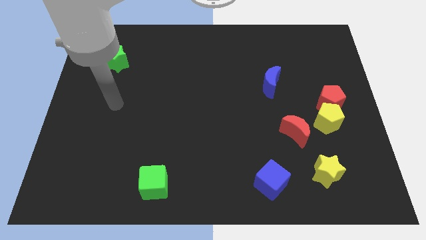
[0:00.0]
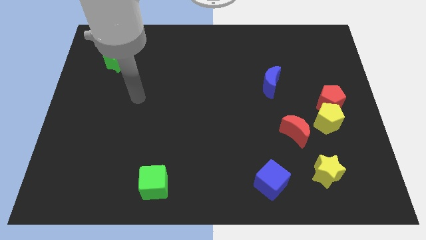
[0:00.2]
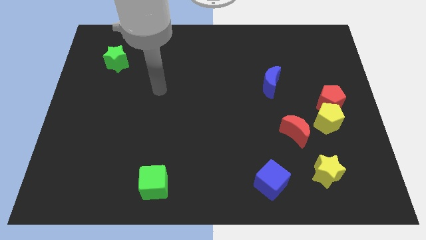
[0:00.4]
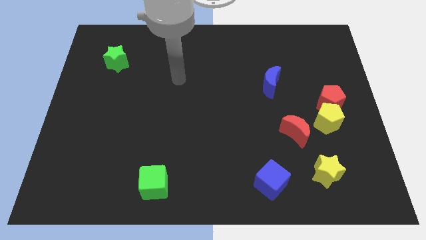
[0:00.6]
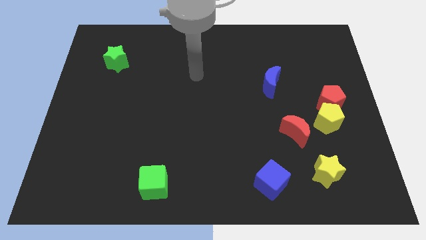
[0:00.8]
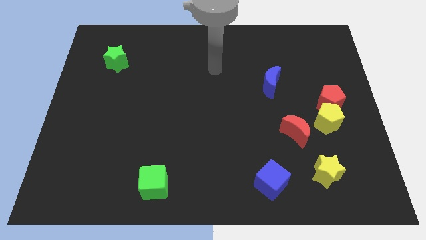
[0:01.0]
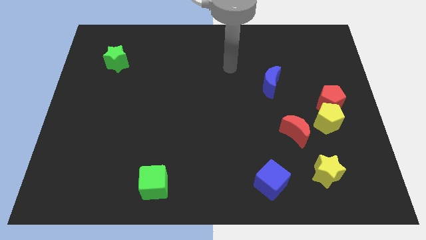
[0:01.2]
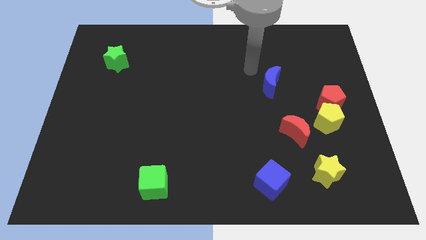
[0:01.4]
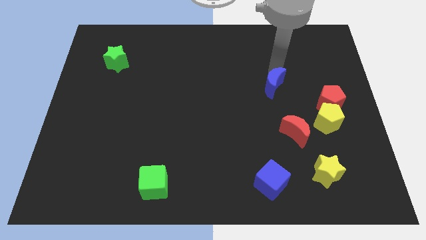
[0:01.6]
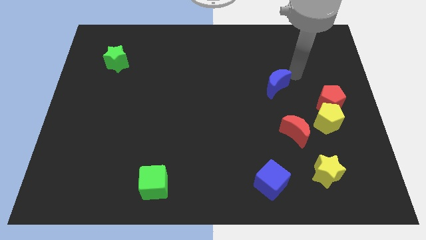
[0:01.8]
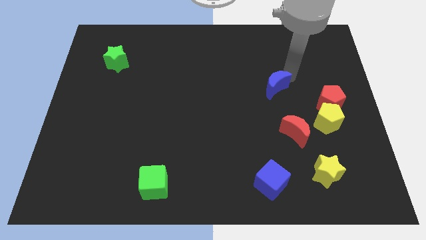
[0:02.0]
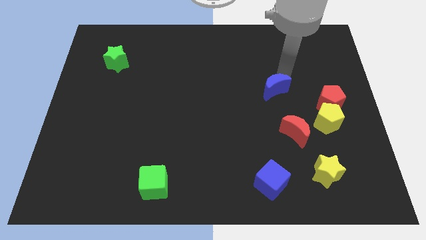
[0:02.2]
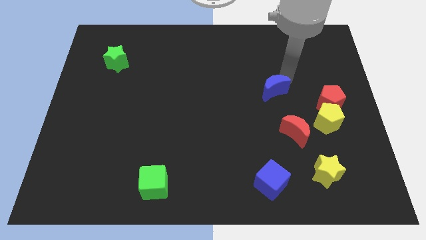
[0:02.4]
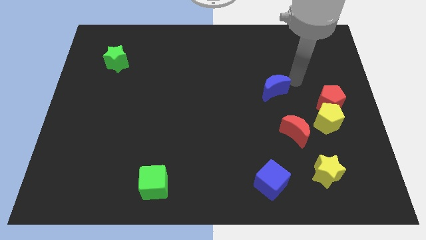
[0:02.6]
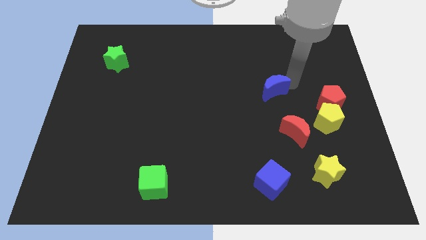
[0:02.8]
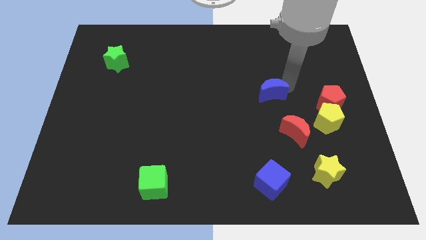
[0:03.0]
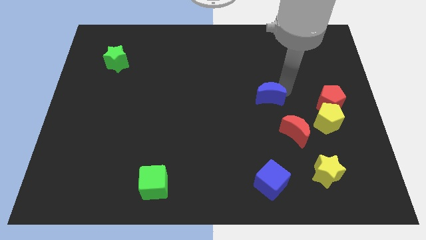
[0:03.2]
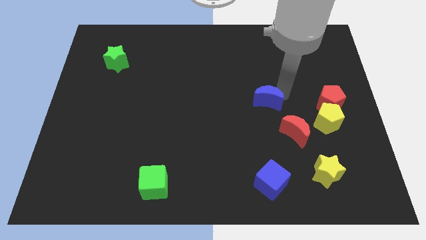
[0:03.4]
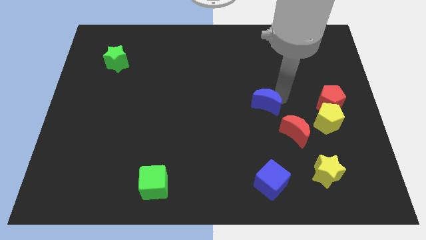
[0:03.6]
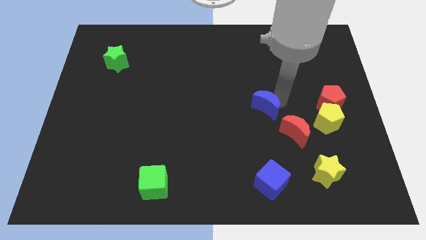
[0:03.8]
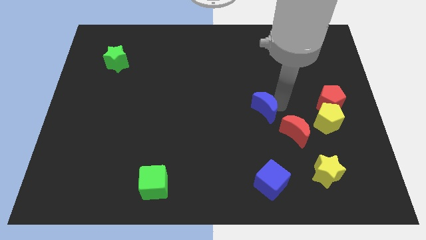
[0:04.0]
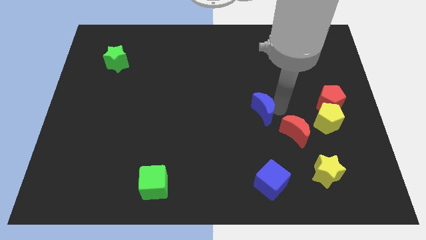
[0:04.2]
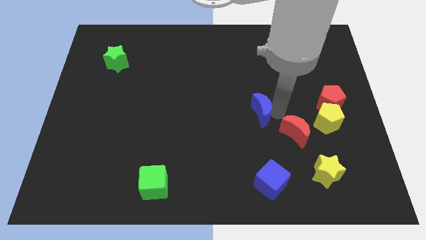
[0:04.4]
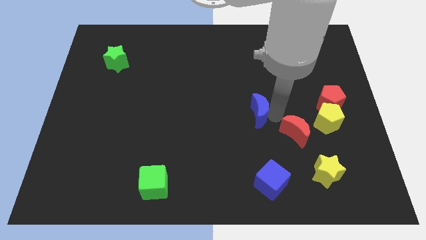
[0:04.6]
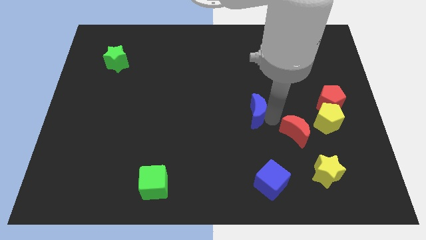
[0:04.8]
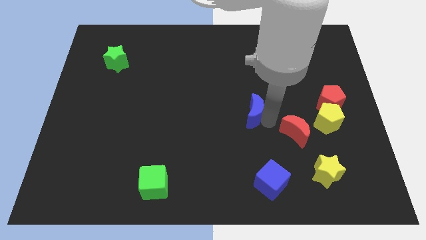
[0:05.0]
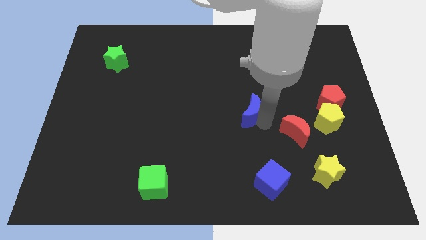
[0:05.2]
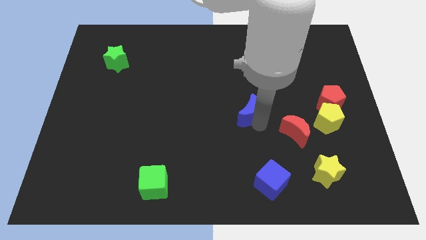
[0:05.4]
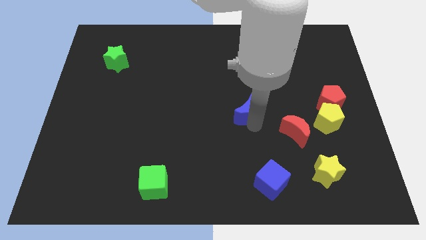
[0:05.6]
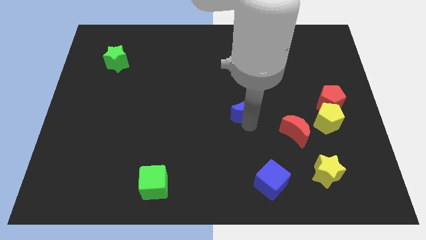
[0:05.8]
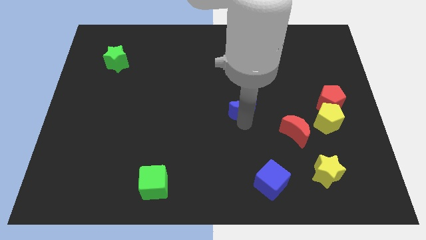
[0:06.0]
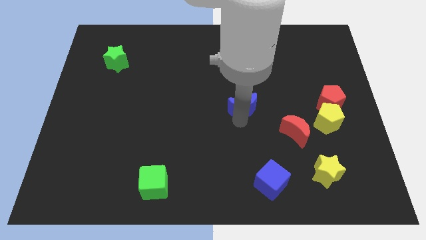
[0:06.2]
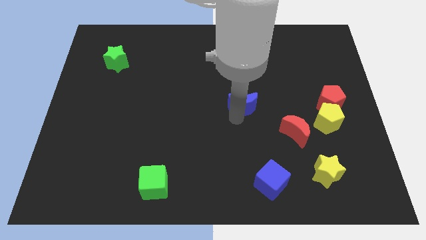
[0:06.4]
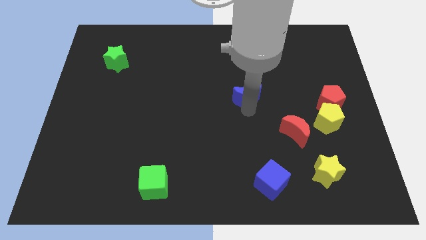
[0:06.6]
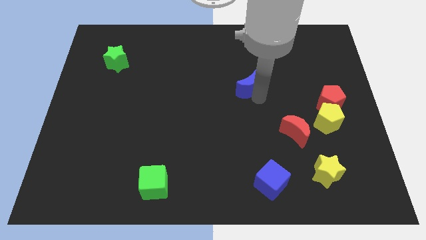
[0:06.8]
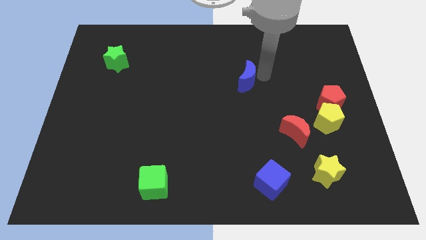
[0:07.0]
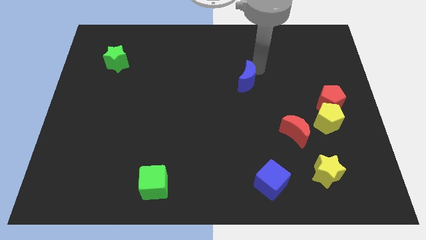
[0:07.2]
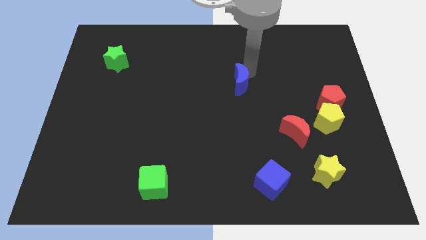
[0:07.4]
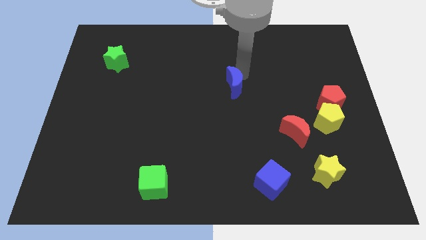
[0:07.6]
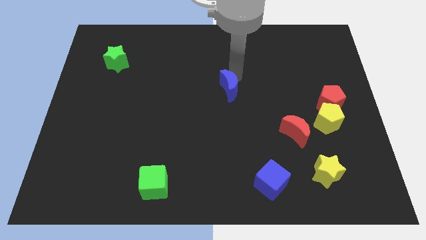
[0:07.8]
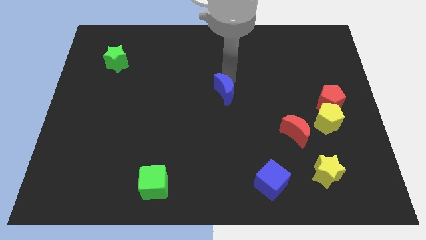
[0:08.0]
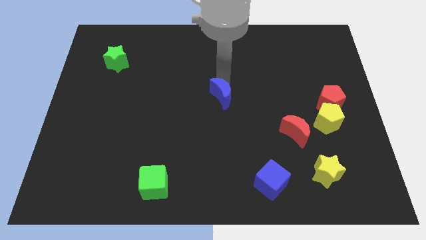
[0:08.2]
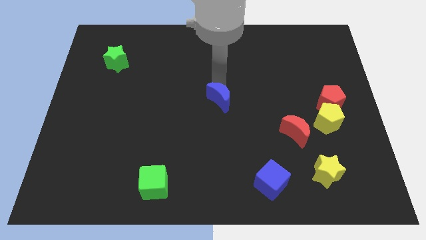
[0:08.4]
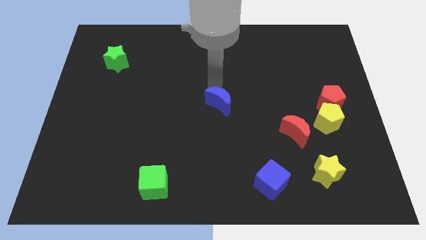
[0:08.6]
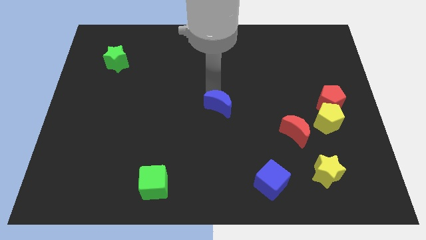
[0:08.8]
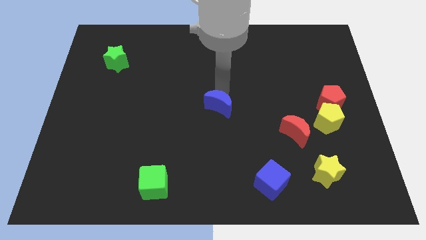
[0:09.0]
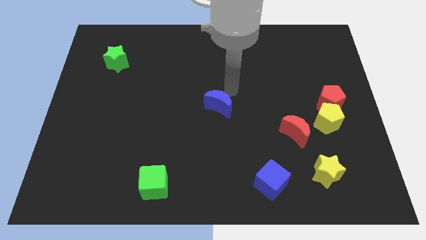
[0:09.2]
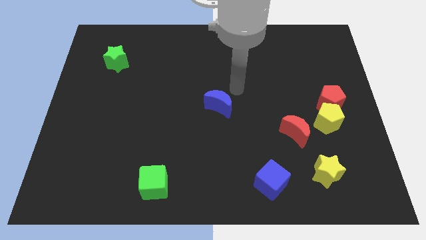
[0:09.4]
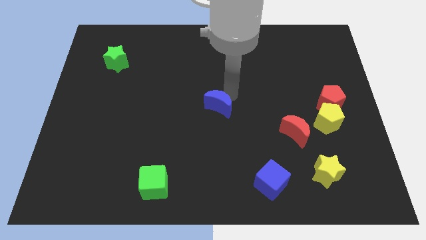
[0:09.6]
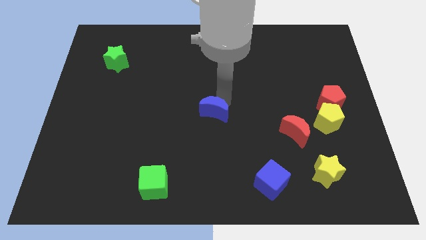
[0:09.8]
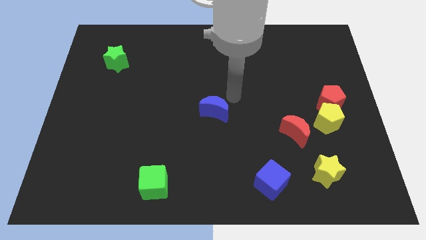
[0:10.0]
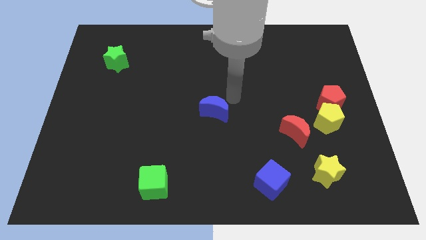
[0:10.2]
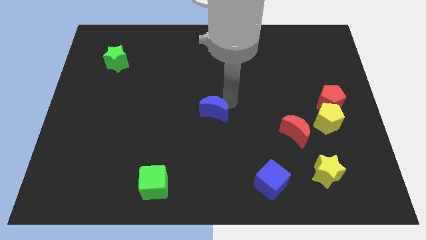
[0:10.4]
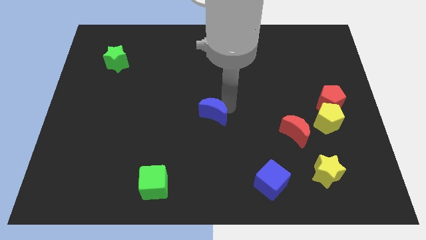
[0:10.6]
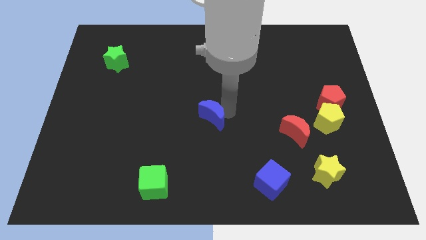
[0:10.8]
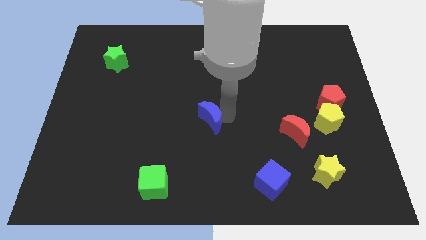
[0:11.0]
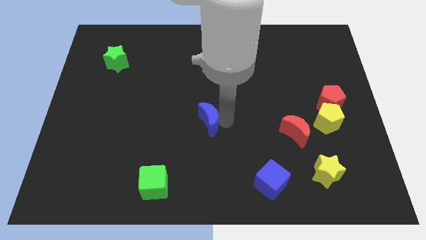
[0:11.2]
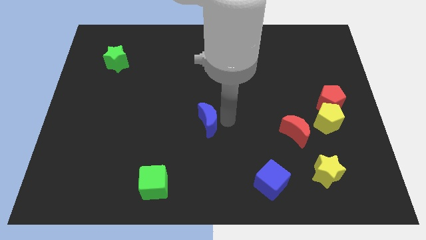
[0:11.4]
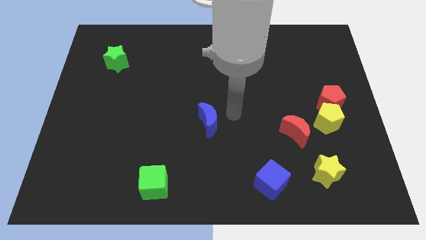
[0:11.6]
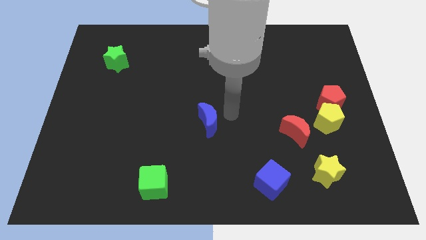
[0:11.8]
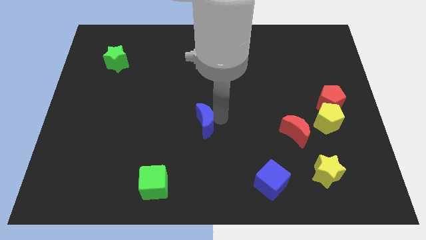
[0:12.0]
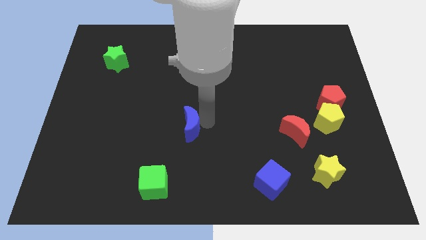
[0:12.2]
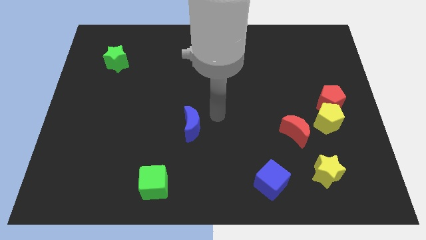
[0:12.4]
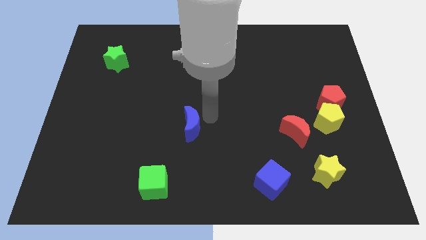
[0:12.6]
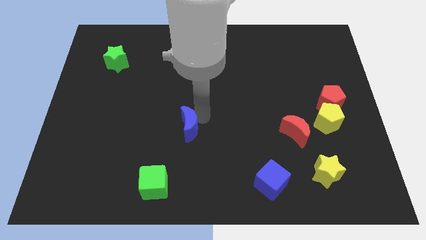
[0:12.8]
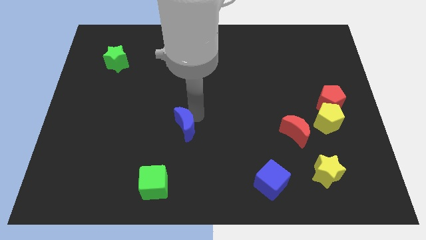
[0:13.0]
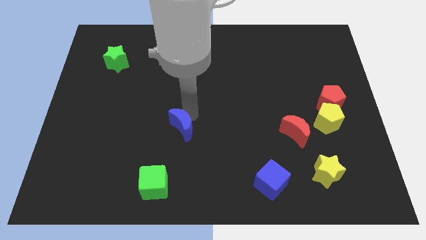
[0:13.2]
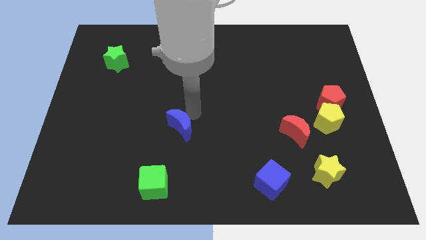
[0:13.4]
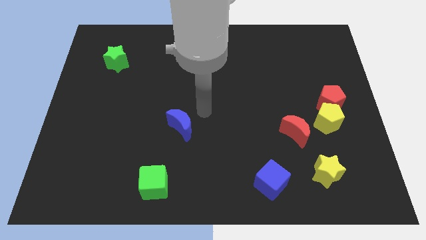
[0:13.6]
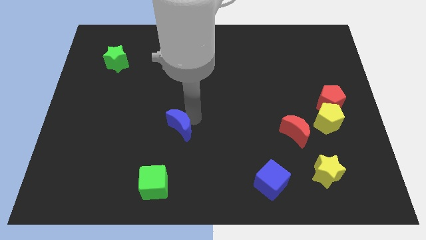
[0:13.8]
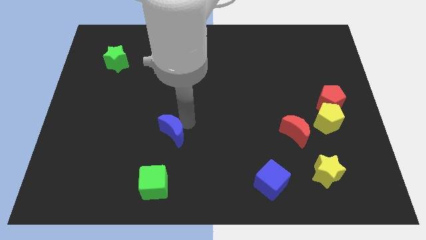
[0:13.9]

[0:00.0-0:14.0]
push the blue moon to the top side of the green cube
